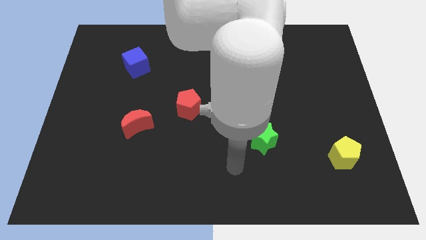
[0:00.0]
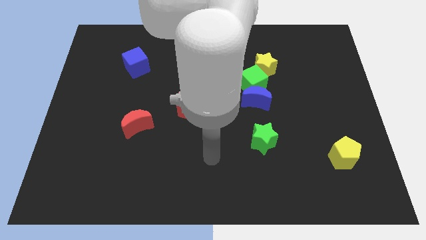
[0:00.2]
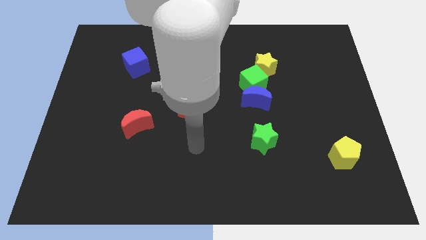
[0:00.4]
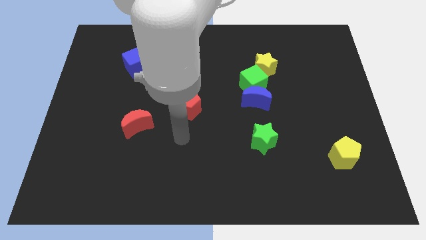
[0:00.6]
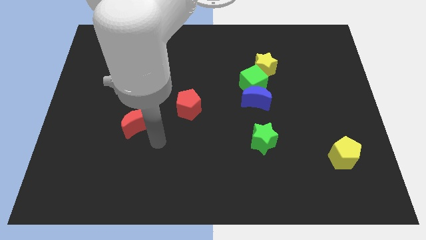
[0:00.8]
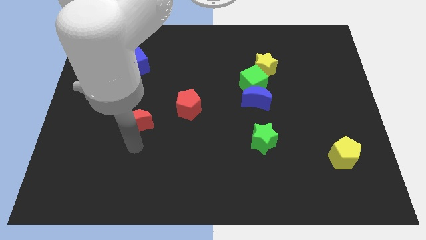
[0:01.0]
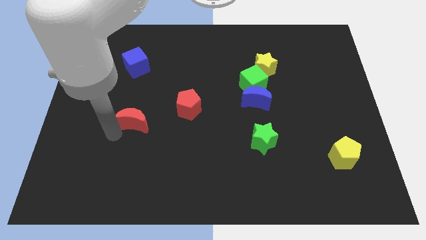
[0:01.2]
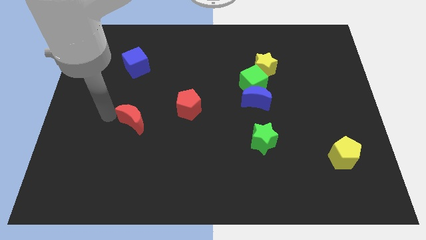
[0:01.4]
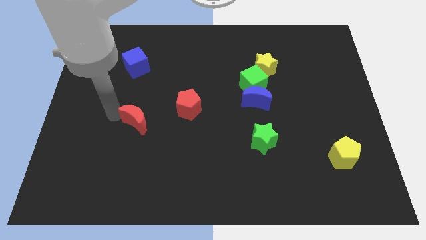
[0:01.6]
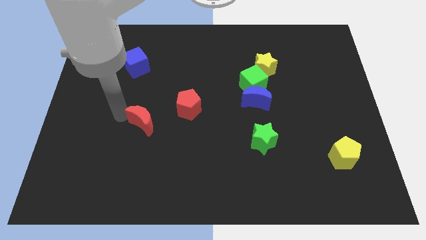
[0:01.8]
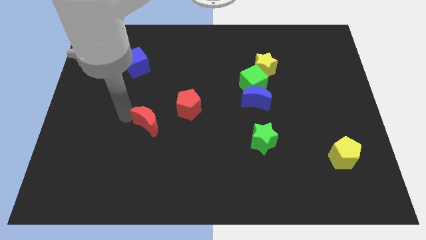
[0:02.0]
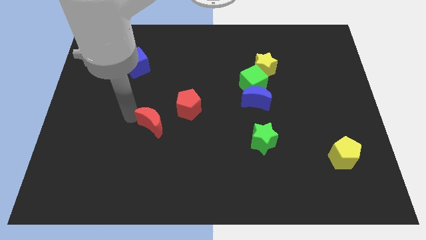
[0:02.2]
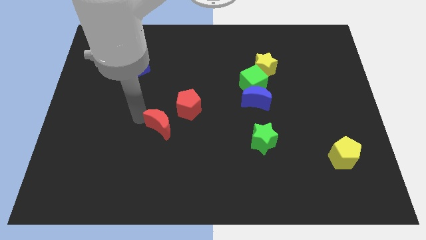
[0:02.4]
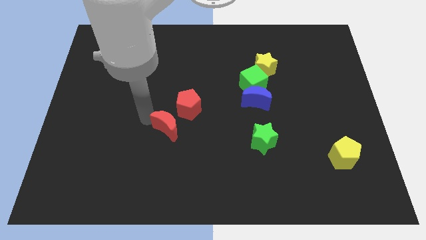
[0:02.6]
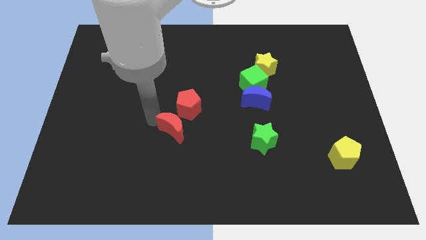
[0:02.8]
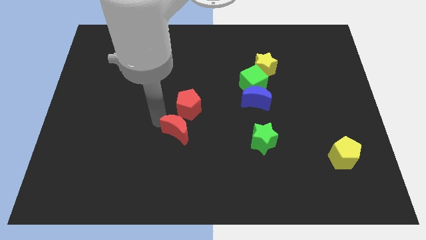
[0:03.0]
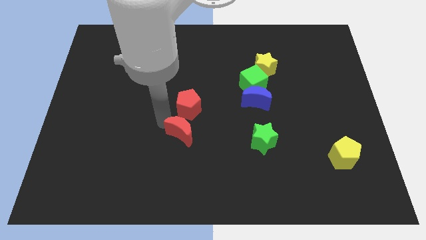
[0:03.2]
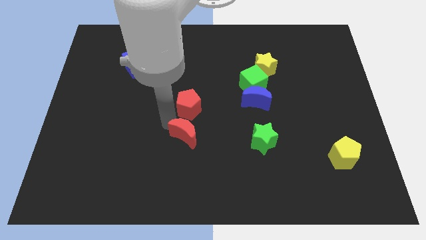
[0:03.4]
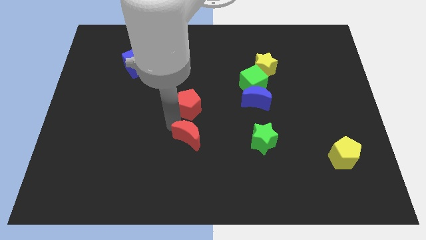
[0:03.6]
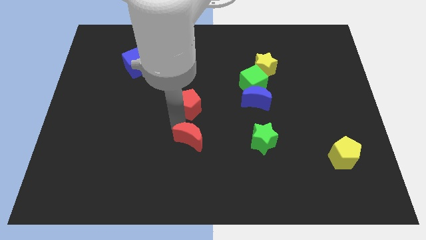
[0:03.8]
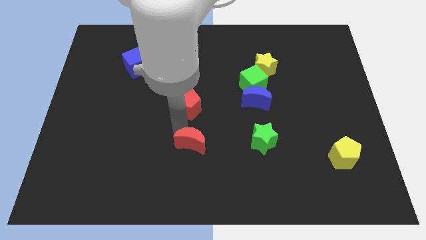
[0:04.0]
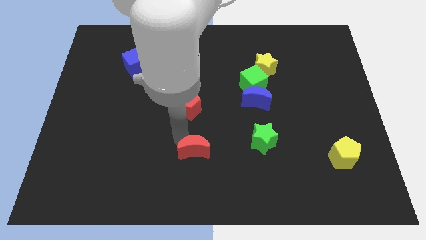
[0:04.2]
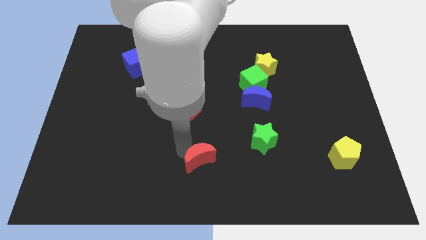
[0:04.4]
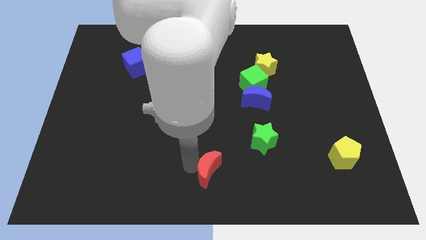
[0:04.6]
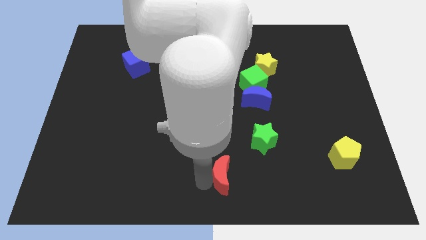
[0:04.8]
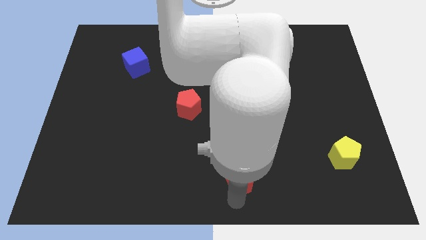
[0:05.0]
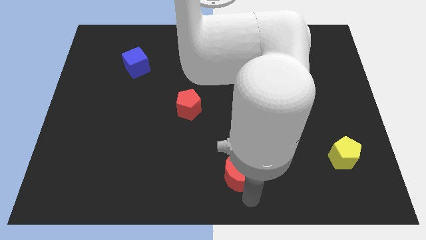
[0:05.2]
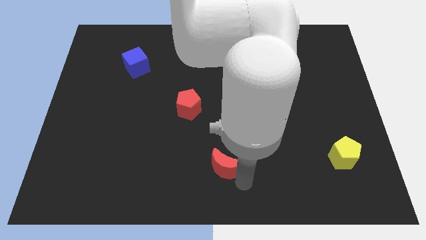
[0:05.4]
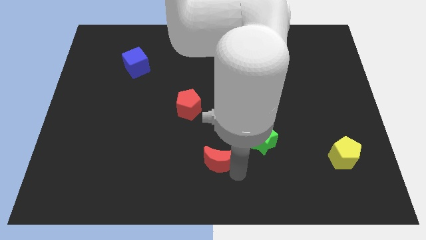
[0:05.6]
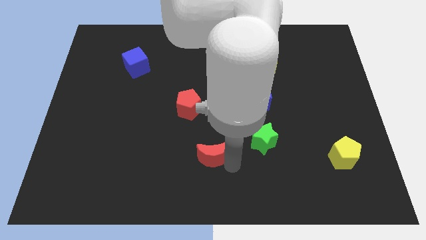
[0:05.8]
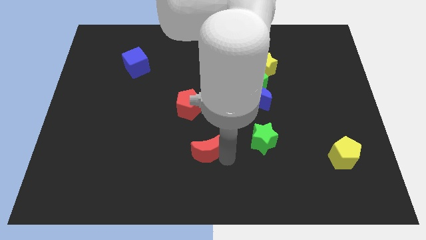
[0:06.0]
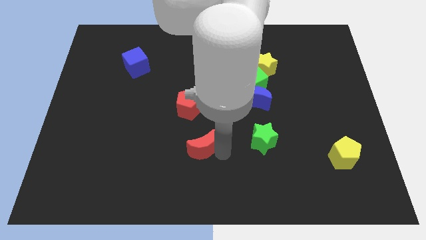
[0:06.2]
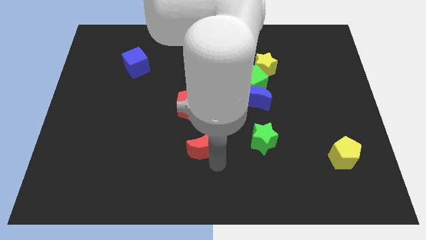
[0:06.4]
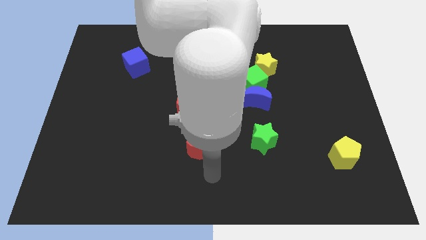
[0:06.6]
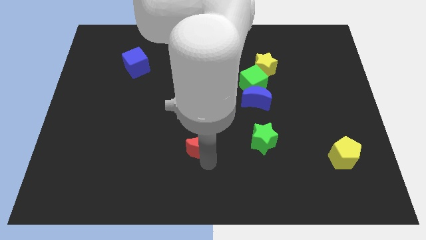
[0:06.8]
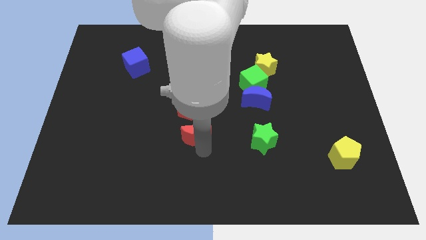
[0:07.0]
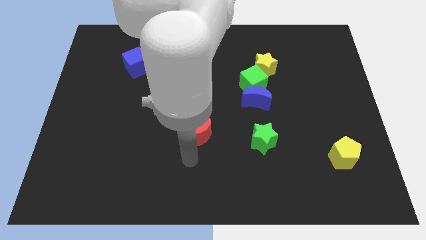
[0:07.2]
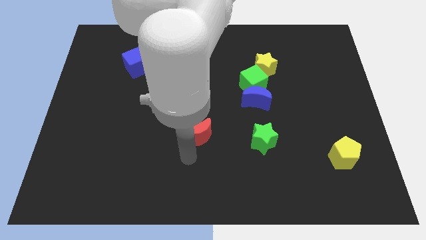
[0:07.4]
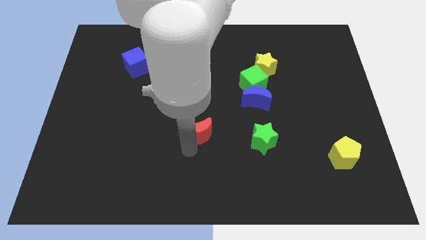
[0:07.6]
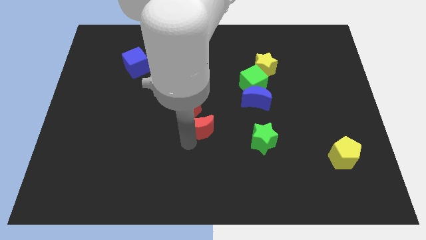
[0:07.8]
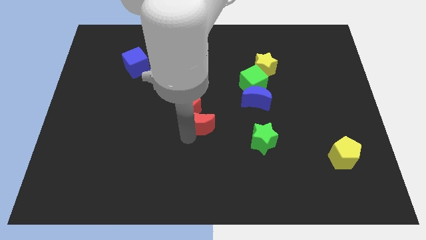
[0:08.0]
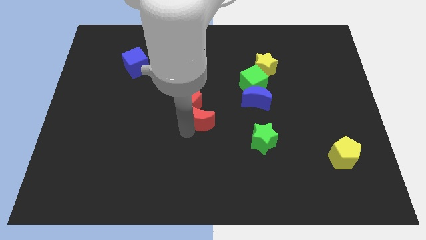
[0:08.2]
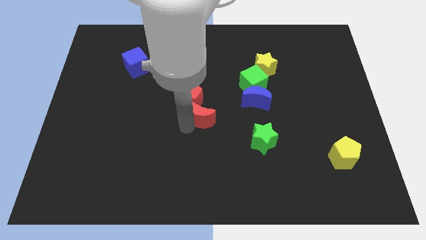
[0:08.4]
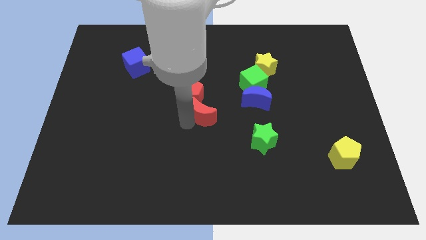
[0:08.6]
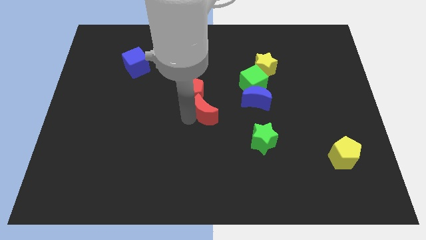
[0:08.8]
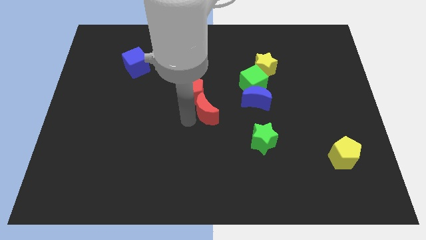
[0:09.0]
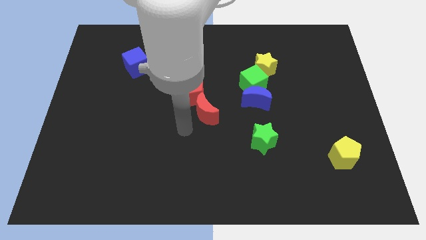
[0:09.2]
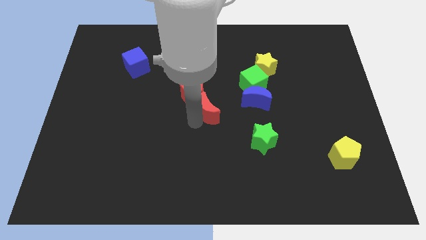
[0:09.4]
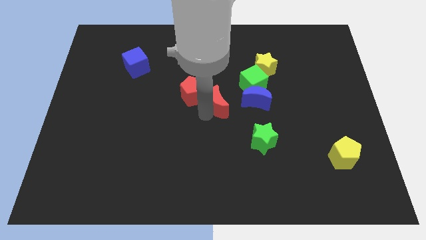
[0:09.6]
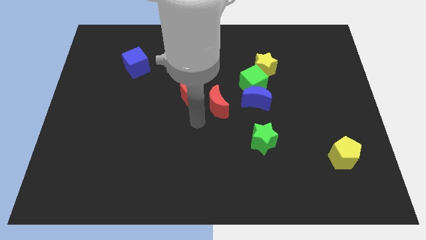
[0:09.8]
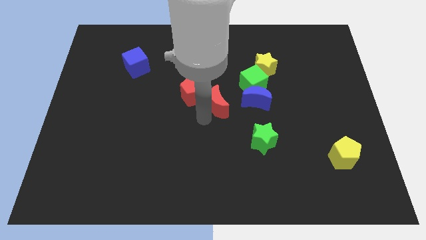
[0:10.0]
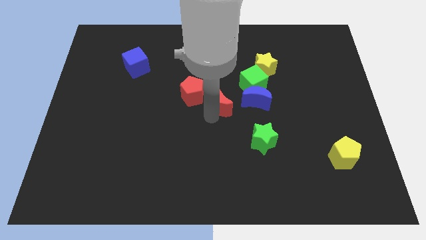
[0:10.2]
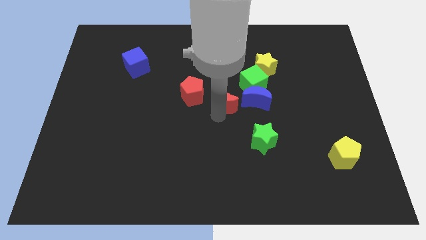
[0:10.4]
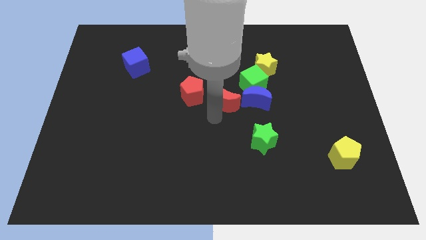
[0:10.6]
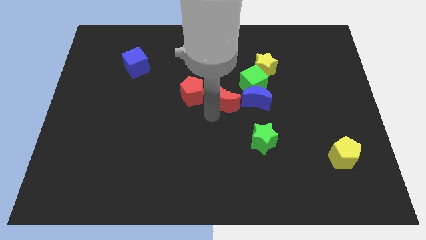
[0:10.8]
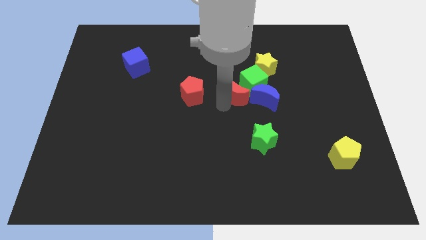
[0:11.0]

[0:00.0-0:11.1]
move the red moon diagonally down and to the left of the yellow star

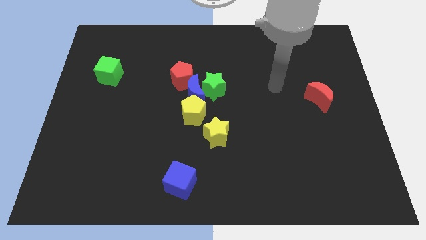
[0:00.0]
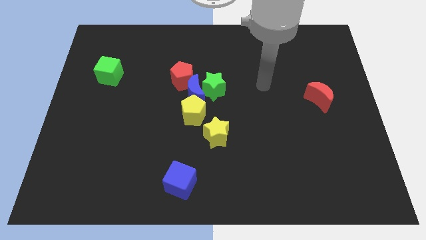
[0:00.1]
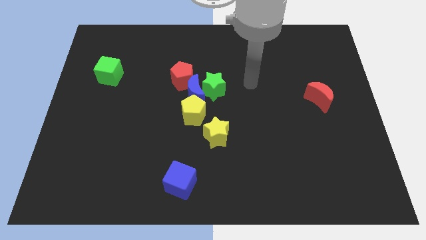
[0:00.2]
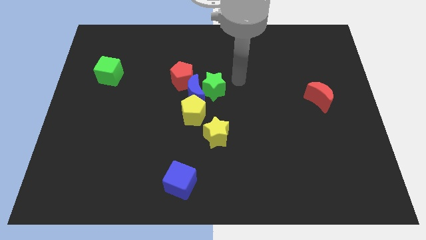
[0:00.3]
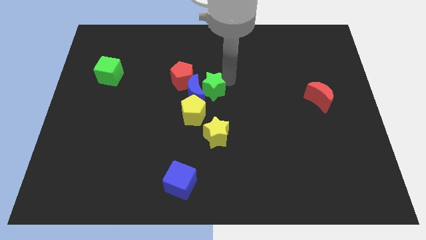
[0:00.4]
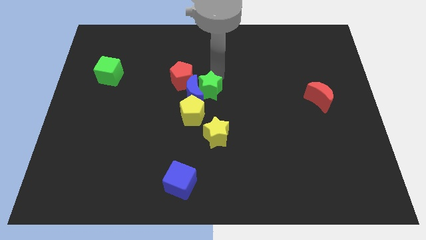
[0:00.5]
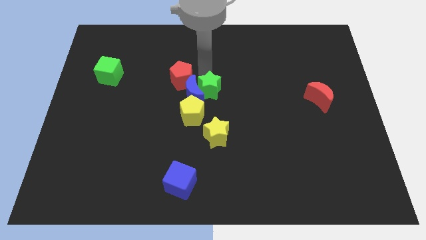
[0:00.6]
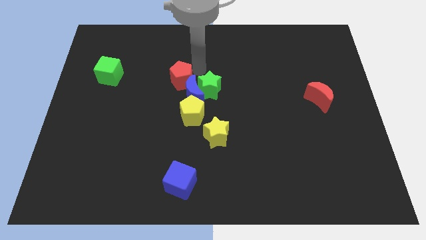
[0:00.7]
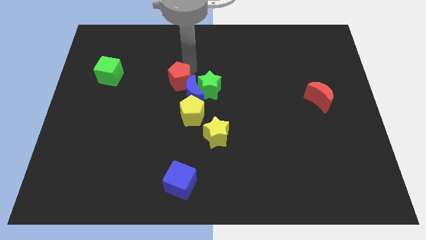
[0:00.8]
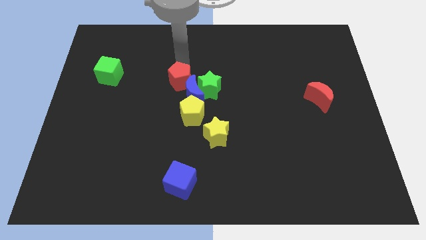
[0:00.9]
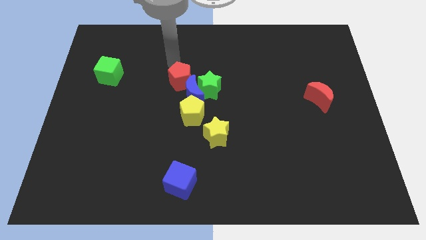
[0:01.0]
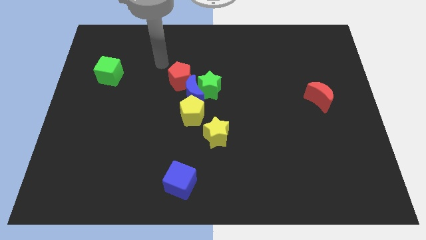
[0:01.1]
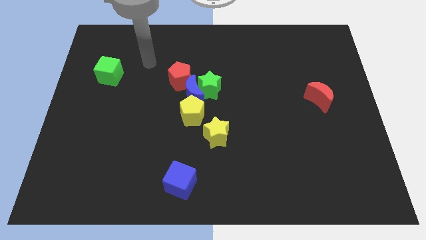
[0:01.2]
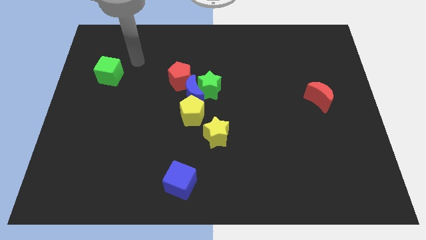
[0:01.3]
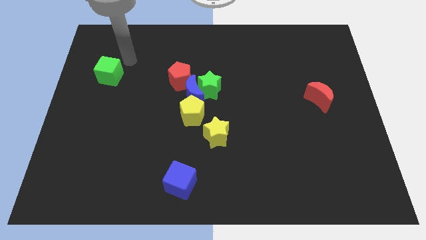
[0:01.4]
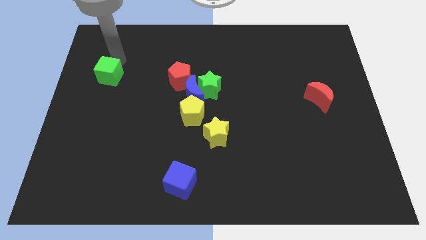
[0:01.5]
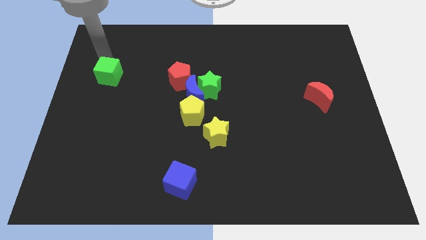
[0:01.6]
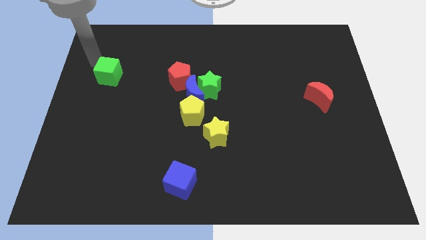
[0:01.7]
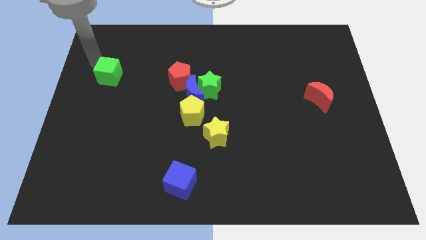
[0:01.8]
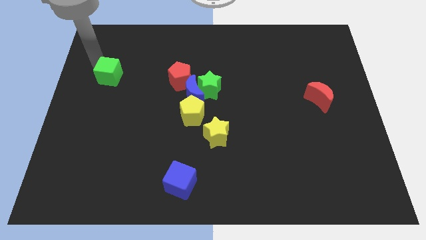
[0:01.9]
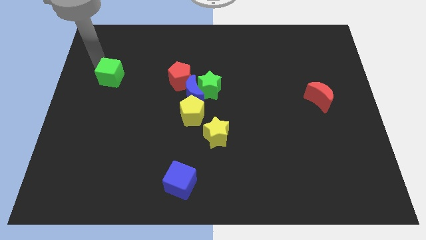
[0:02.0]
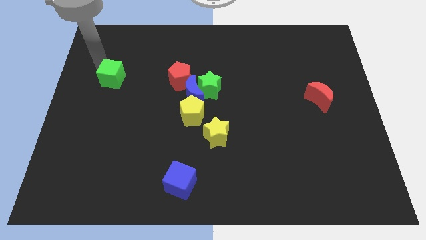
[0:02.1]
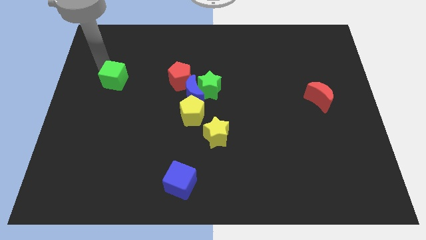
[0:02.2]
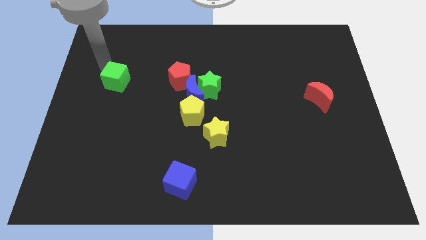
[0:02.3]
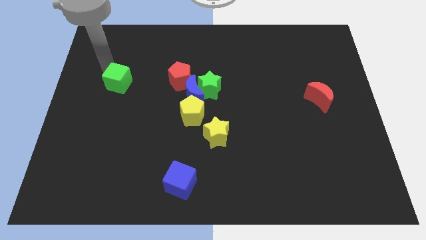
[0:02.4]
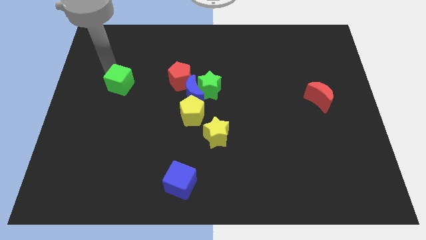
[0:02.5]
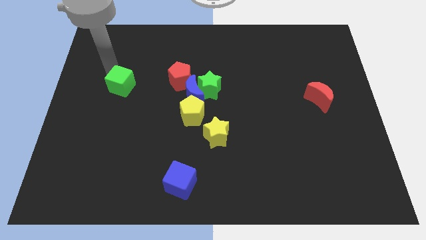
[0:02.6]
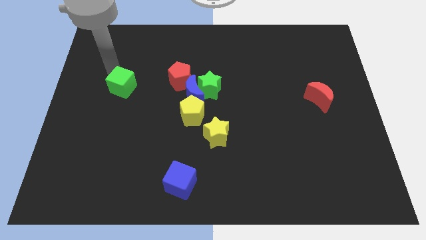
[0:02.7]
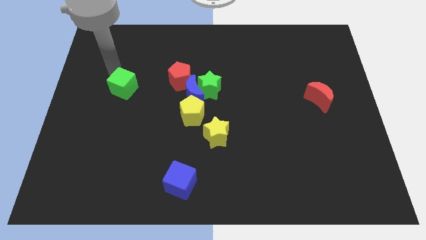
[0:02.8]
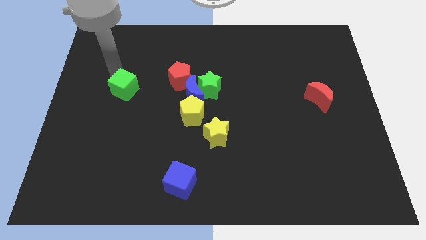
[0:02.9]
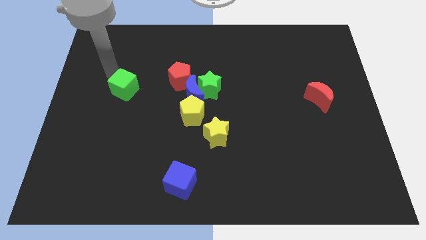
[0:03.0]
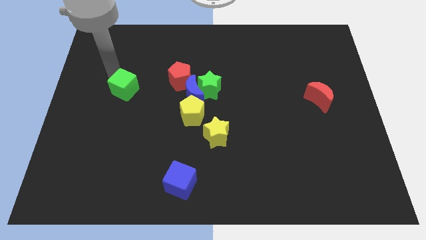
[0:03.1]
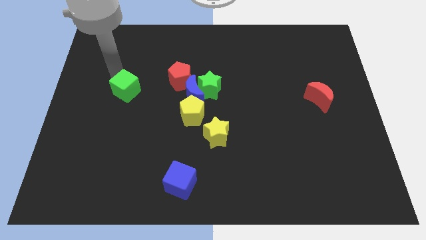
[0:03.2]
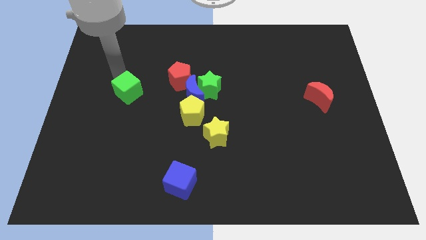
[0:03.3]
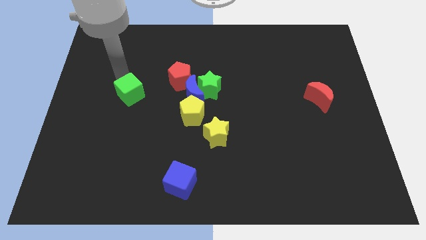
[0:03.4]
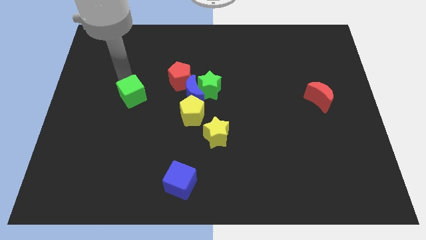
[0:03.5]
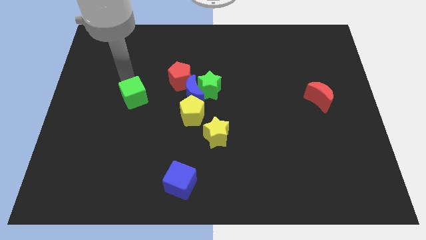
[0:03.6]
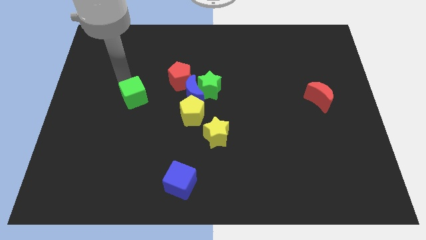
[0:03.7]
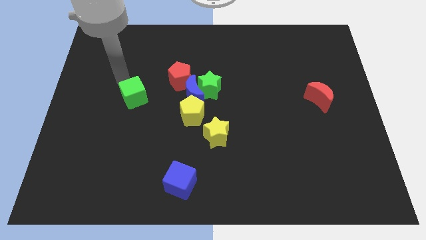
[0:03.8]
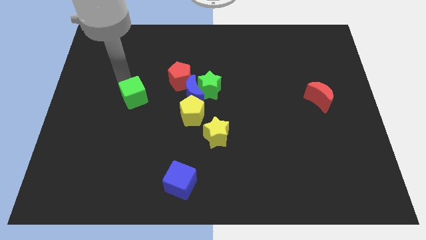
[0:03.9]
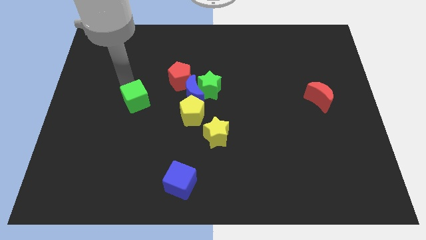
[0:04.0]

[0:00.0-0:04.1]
put the green cube left of the yellow pentagon
